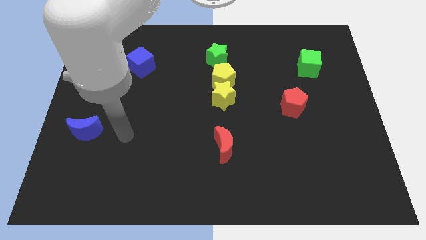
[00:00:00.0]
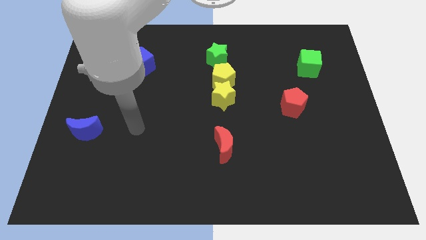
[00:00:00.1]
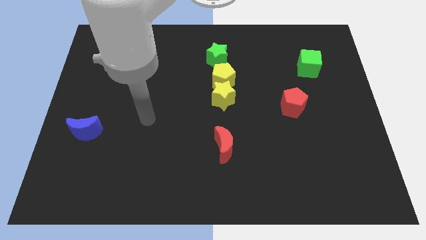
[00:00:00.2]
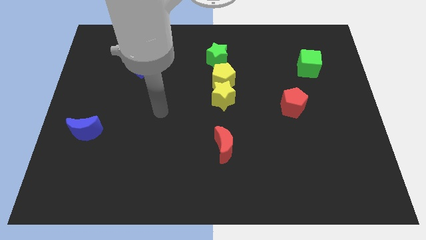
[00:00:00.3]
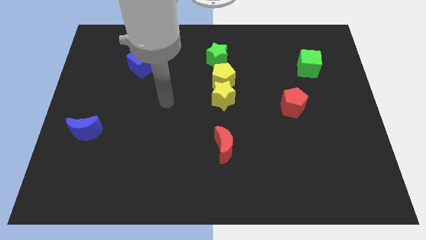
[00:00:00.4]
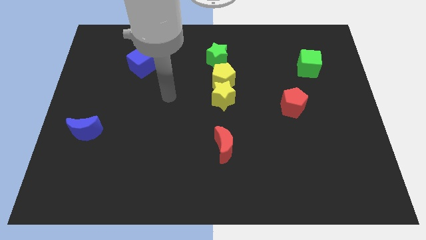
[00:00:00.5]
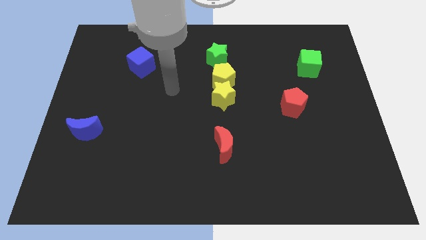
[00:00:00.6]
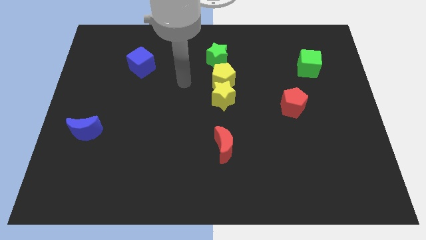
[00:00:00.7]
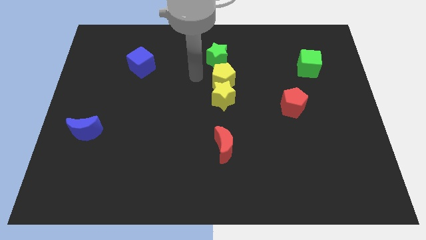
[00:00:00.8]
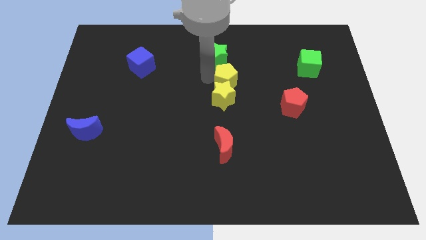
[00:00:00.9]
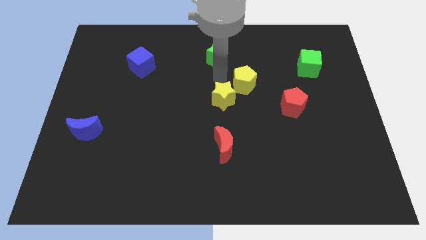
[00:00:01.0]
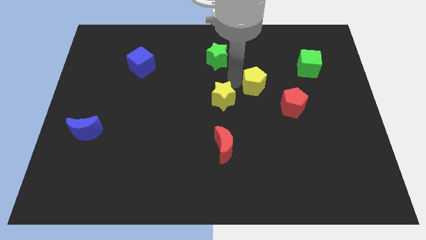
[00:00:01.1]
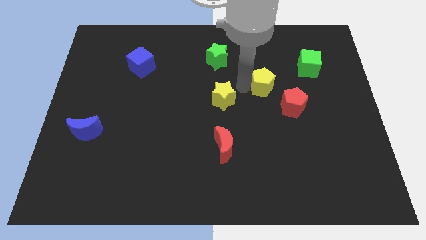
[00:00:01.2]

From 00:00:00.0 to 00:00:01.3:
move the yellow star away from the yellow pentagon

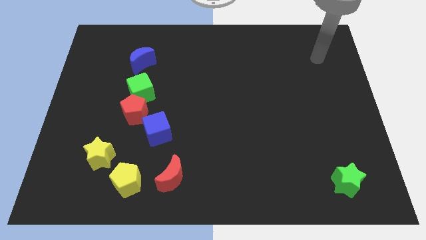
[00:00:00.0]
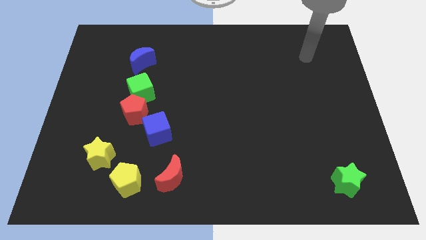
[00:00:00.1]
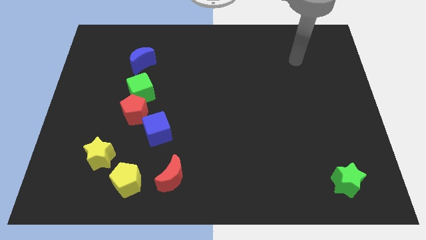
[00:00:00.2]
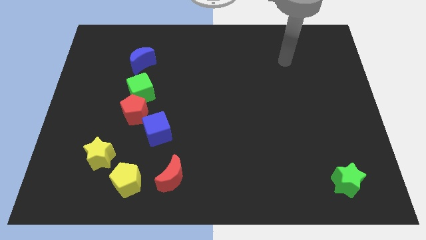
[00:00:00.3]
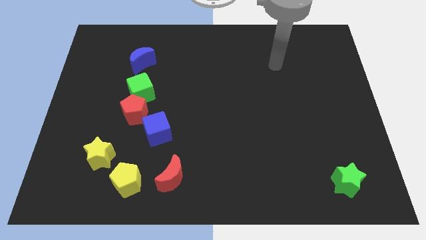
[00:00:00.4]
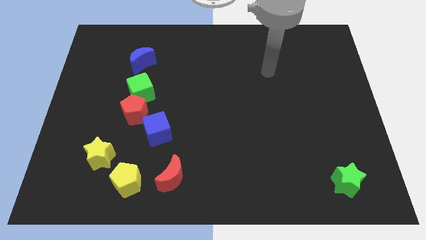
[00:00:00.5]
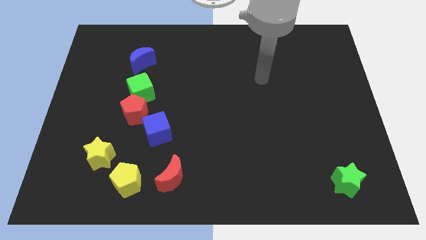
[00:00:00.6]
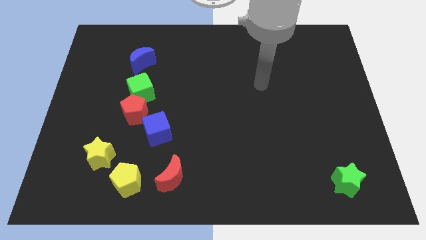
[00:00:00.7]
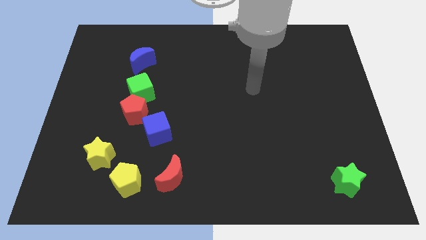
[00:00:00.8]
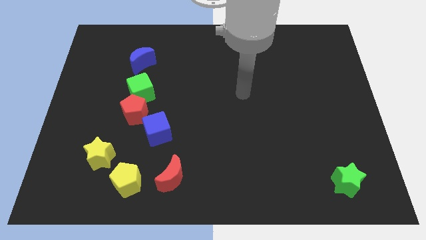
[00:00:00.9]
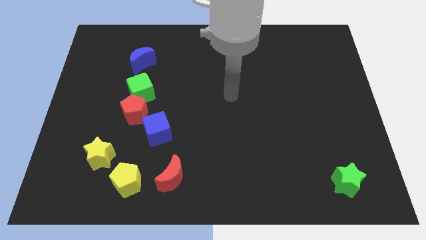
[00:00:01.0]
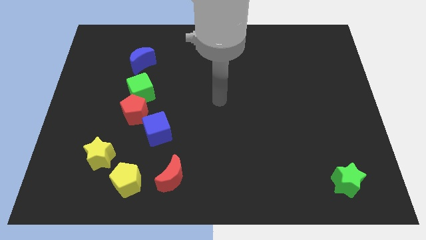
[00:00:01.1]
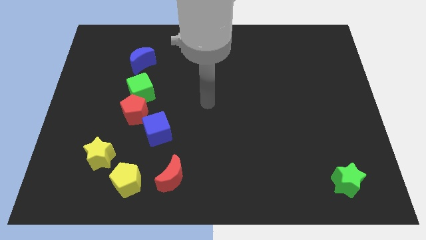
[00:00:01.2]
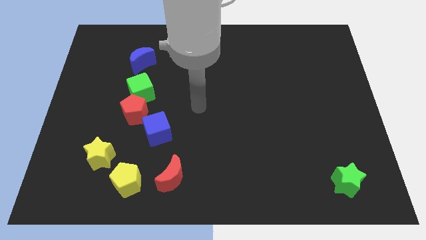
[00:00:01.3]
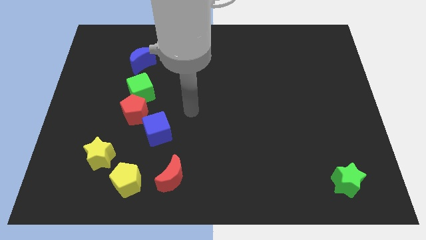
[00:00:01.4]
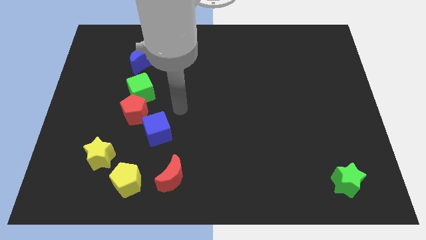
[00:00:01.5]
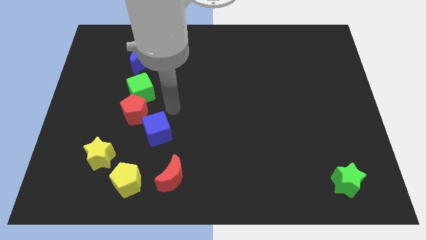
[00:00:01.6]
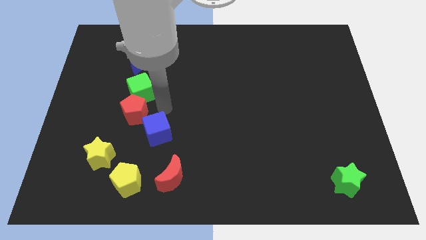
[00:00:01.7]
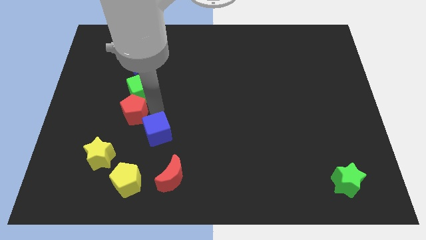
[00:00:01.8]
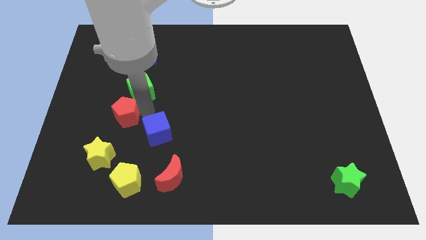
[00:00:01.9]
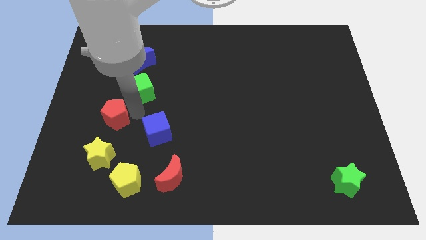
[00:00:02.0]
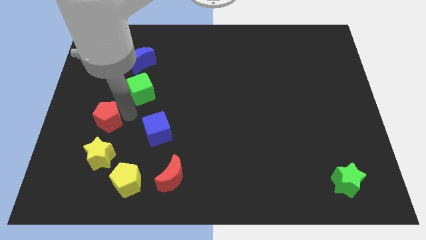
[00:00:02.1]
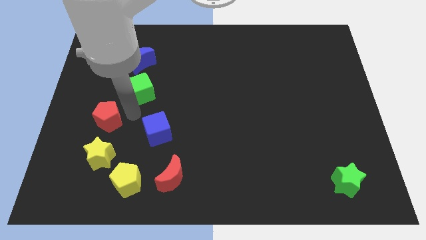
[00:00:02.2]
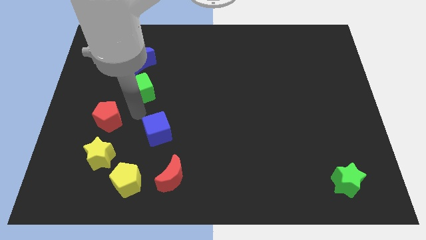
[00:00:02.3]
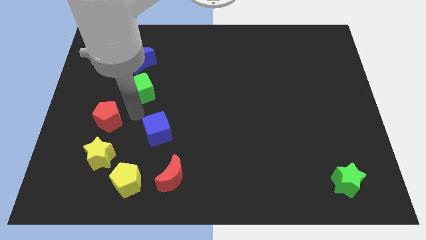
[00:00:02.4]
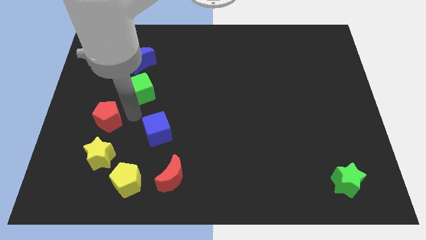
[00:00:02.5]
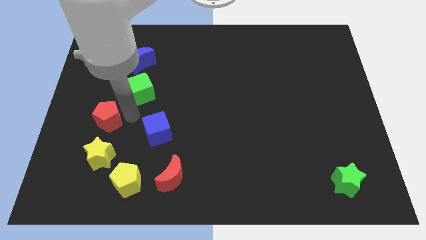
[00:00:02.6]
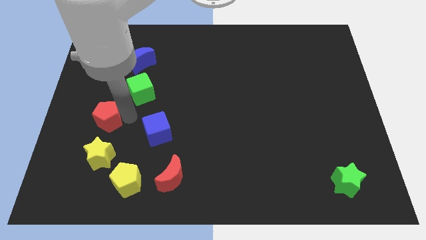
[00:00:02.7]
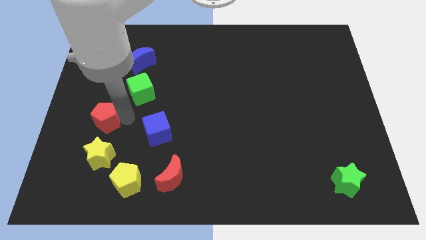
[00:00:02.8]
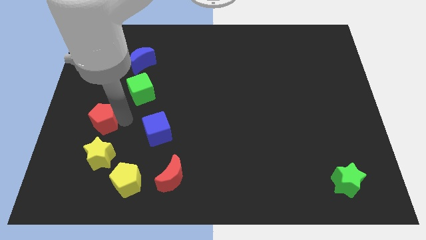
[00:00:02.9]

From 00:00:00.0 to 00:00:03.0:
pull the red pentagon apart from the green cube and blue cube

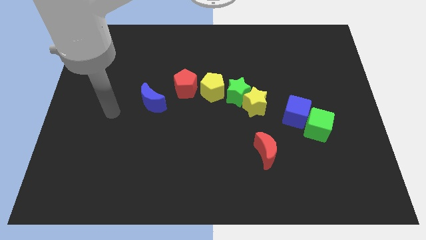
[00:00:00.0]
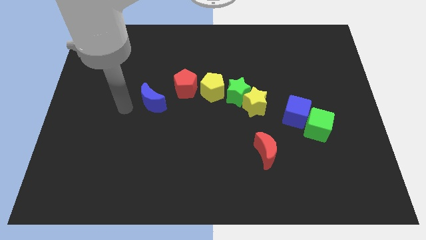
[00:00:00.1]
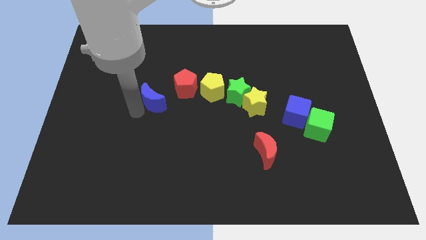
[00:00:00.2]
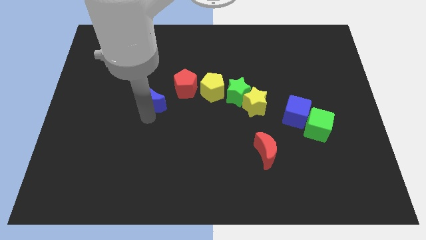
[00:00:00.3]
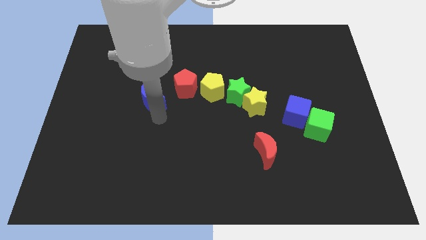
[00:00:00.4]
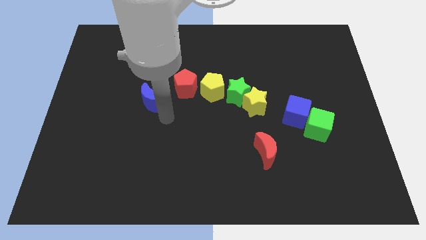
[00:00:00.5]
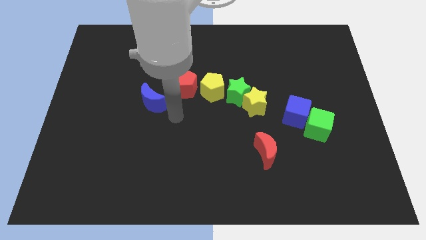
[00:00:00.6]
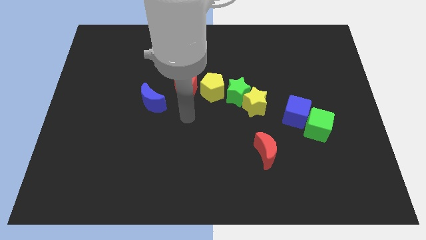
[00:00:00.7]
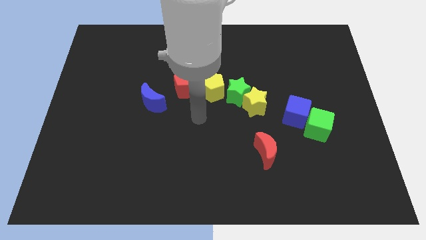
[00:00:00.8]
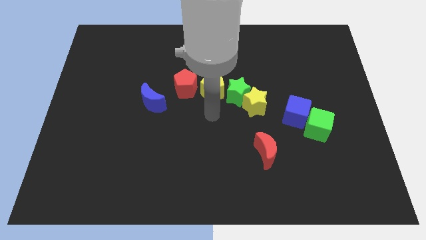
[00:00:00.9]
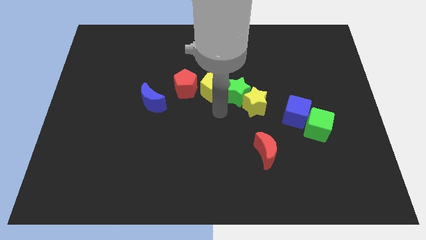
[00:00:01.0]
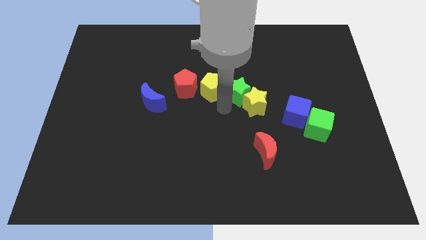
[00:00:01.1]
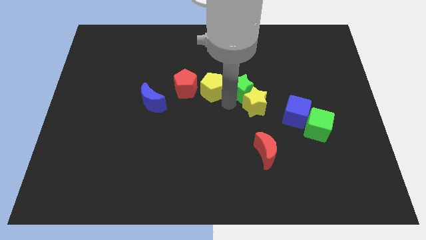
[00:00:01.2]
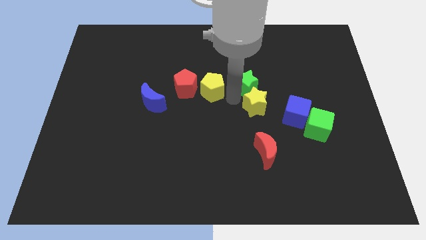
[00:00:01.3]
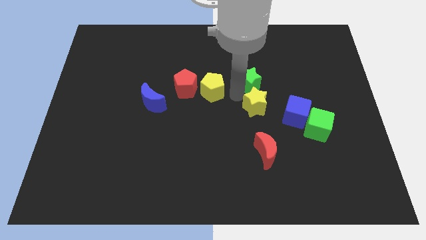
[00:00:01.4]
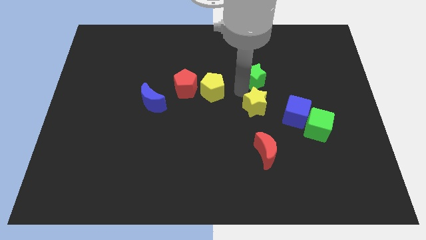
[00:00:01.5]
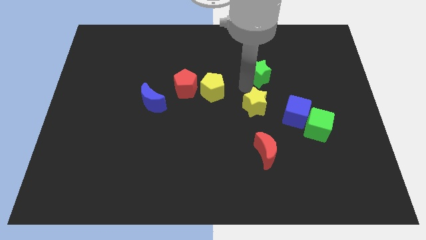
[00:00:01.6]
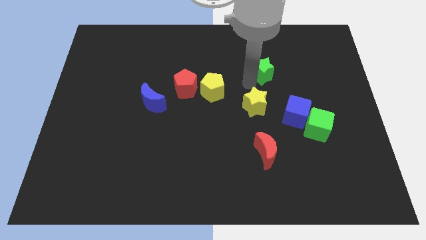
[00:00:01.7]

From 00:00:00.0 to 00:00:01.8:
pull the green star apart from the yellow star and yellow pentagon

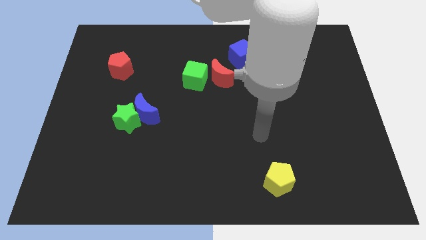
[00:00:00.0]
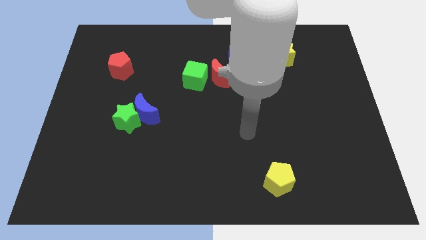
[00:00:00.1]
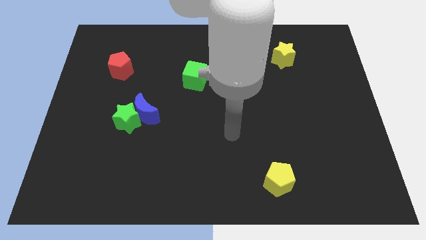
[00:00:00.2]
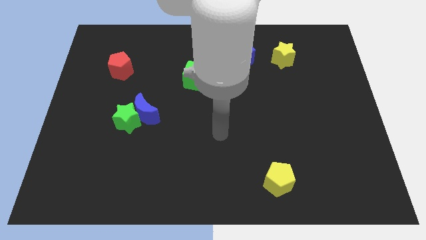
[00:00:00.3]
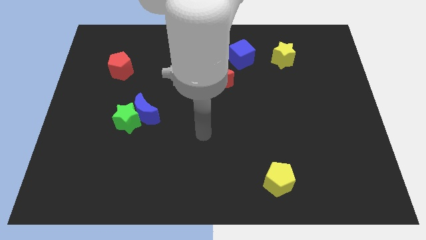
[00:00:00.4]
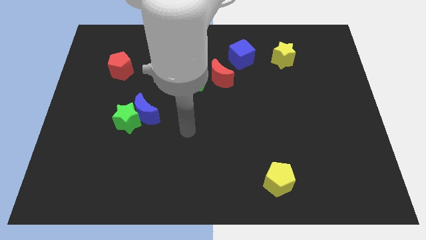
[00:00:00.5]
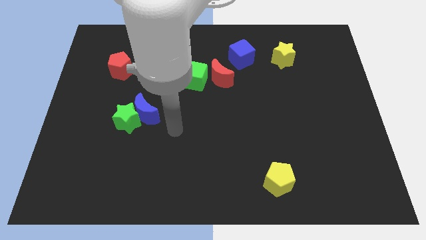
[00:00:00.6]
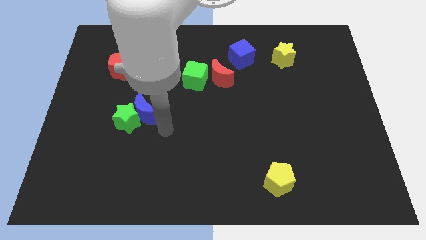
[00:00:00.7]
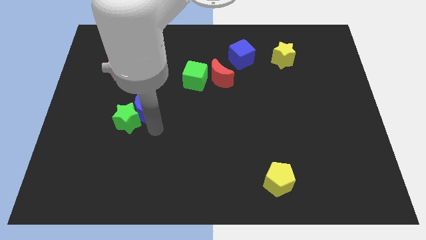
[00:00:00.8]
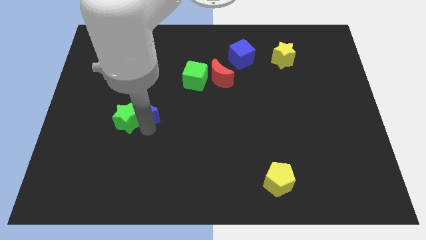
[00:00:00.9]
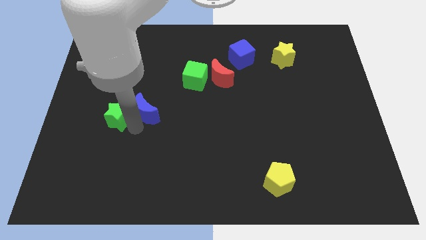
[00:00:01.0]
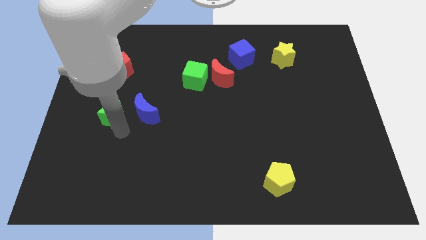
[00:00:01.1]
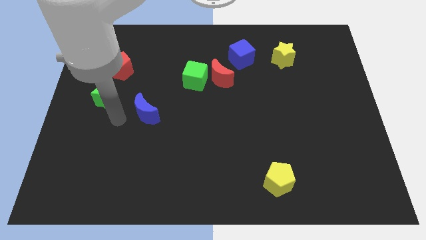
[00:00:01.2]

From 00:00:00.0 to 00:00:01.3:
move the blue moon away from the green star

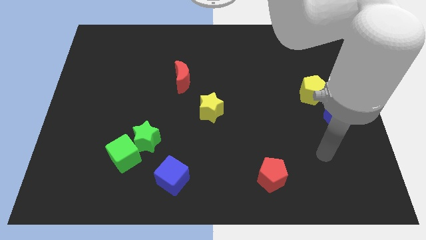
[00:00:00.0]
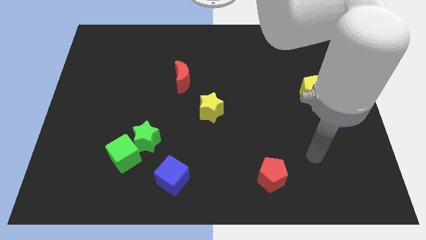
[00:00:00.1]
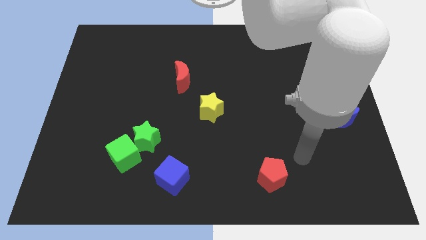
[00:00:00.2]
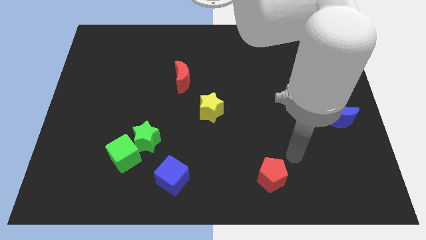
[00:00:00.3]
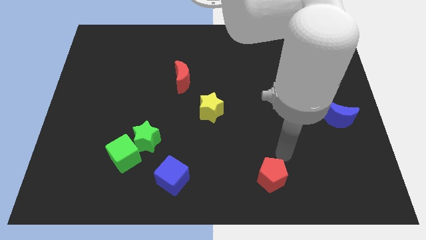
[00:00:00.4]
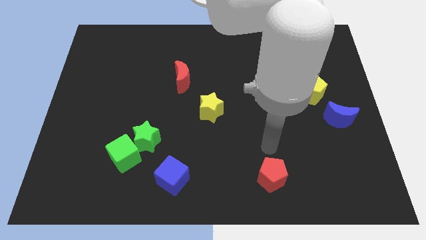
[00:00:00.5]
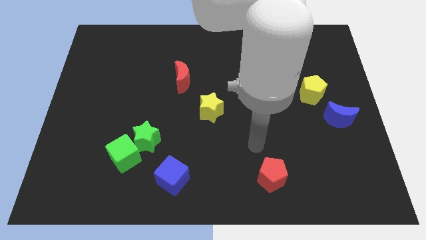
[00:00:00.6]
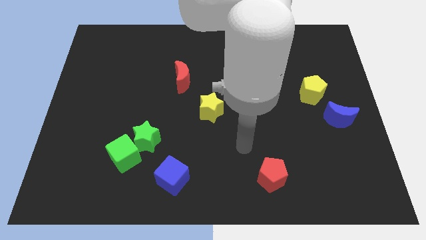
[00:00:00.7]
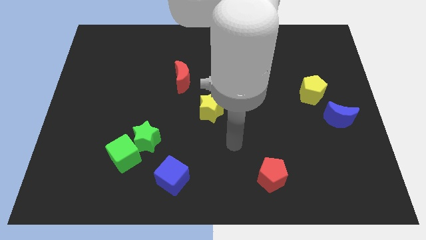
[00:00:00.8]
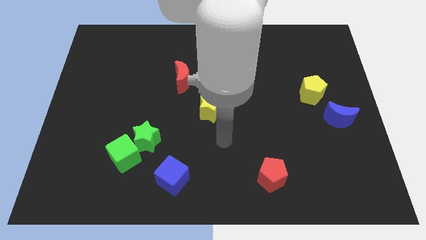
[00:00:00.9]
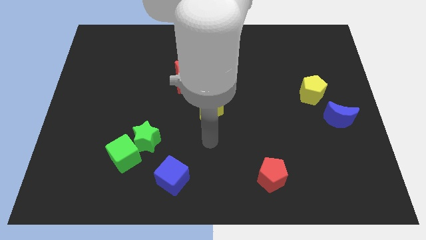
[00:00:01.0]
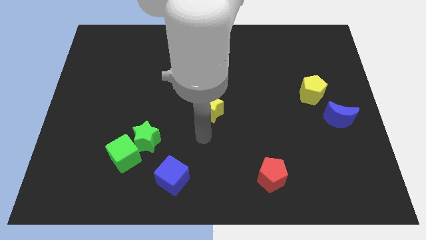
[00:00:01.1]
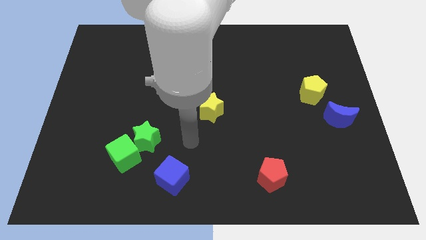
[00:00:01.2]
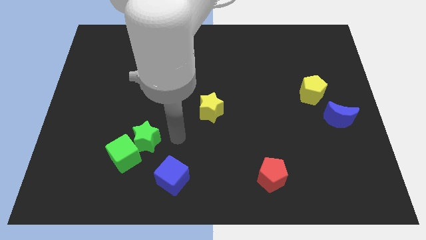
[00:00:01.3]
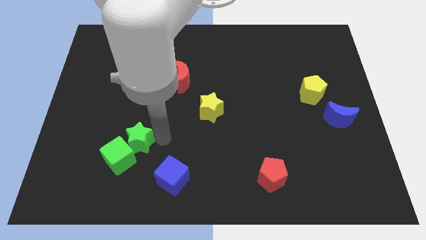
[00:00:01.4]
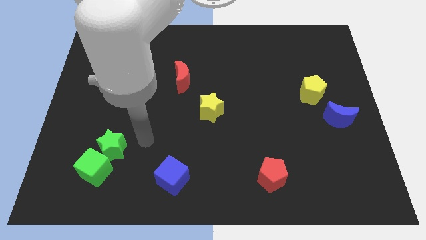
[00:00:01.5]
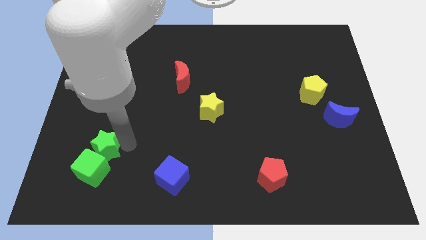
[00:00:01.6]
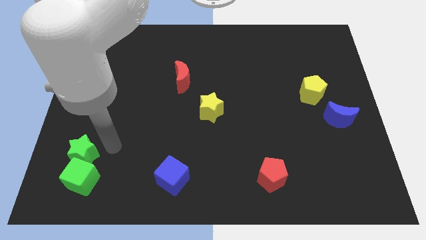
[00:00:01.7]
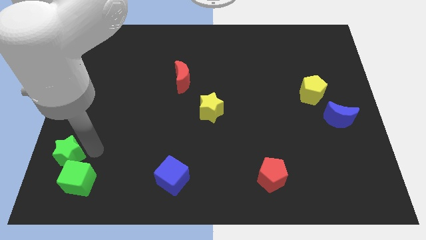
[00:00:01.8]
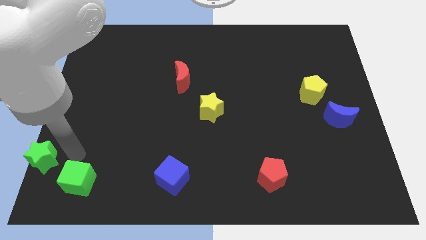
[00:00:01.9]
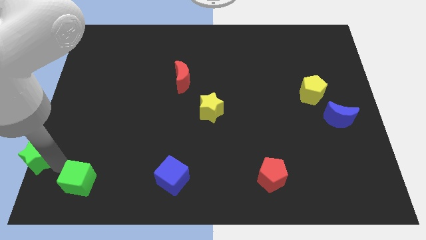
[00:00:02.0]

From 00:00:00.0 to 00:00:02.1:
separate the green cube from the green star
